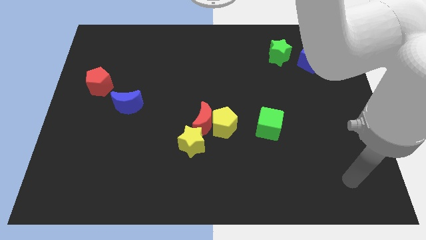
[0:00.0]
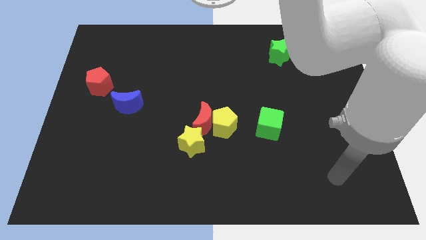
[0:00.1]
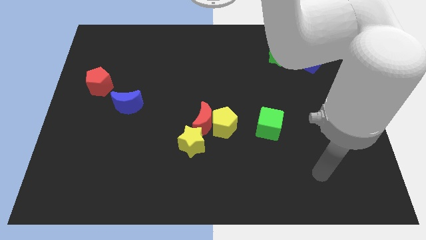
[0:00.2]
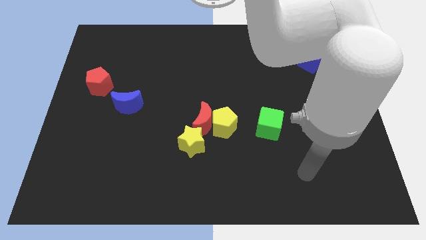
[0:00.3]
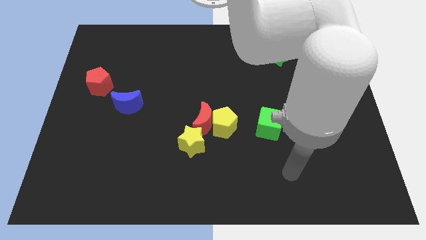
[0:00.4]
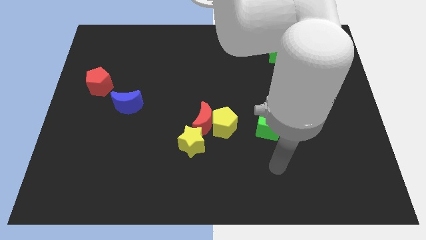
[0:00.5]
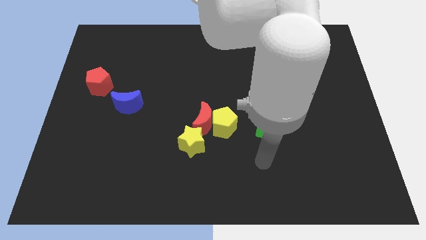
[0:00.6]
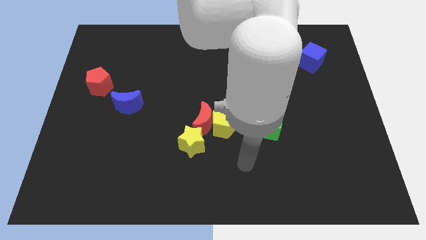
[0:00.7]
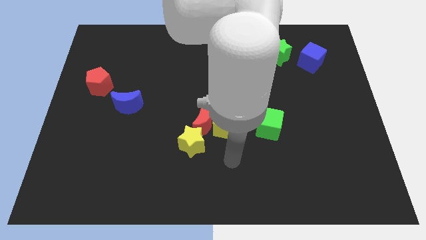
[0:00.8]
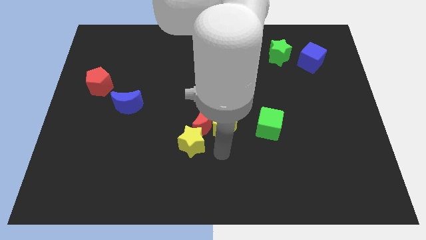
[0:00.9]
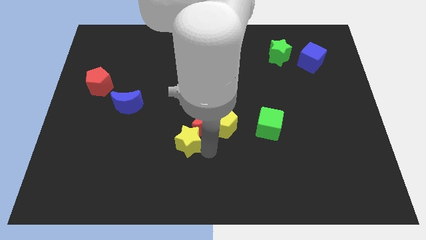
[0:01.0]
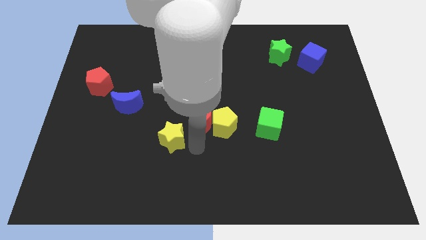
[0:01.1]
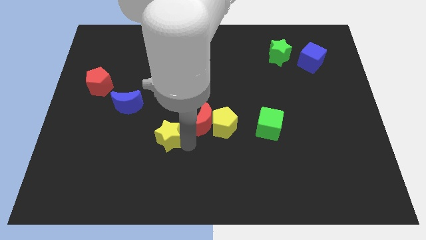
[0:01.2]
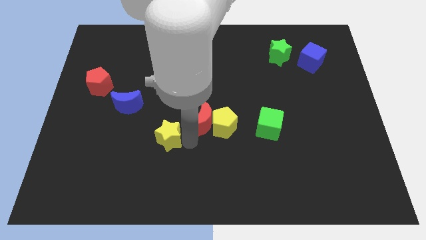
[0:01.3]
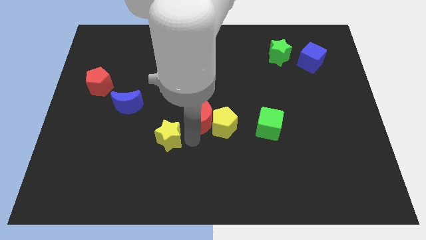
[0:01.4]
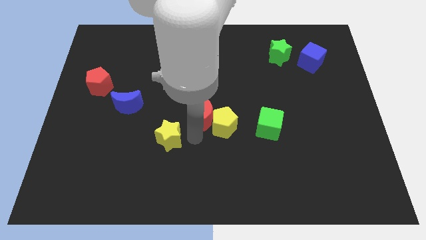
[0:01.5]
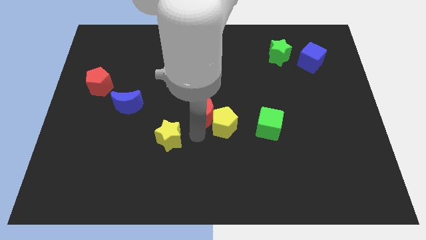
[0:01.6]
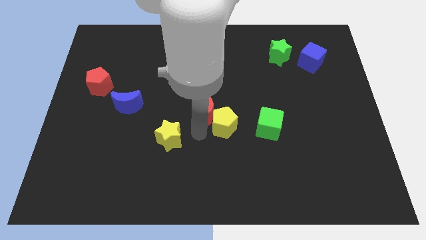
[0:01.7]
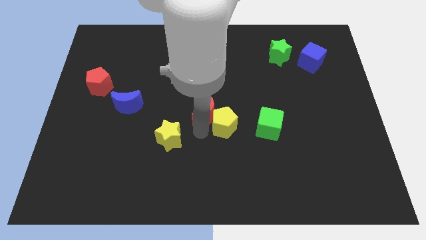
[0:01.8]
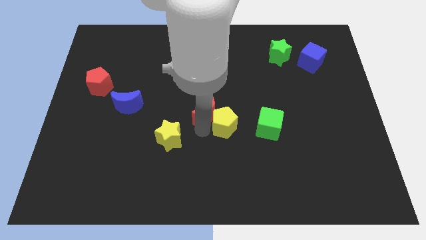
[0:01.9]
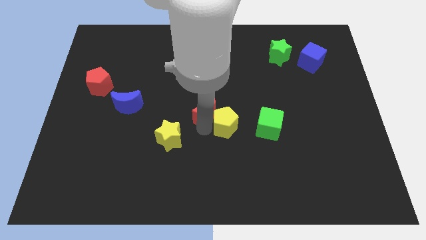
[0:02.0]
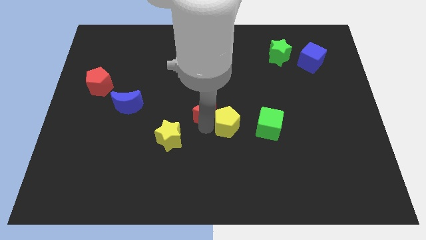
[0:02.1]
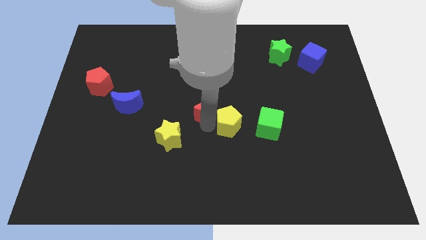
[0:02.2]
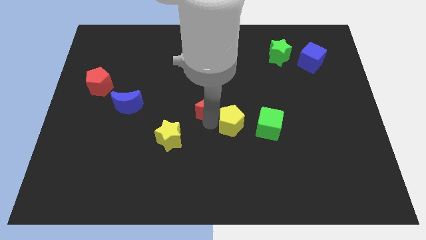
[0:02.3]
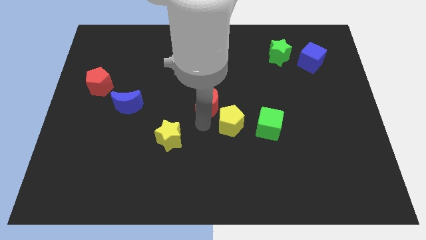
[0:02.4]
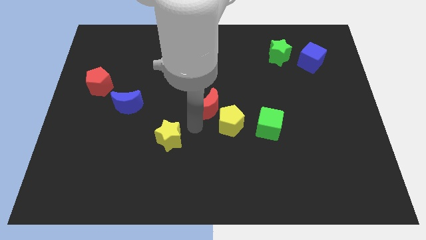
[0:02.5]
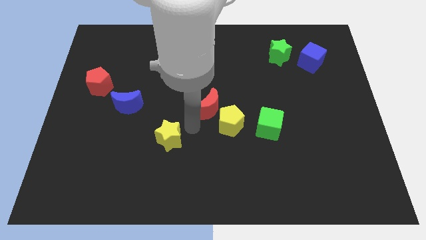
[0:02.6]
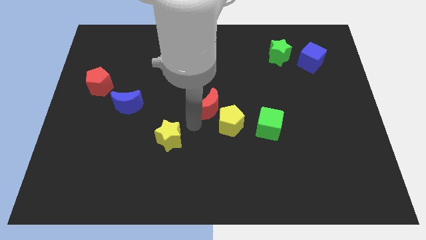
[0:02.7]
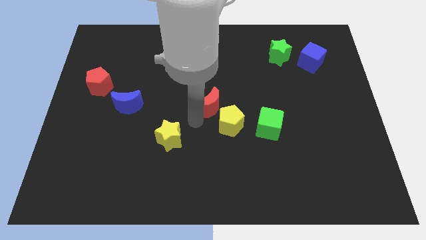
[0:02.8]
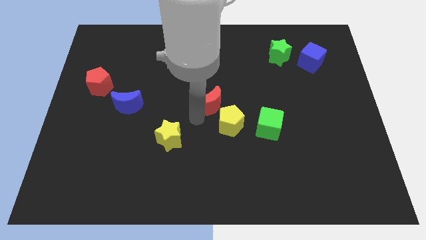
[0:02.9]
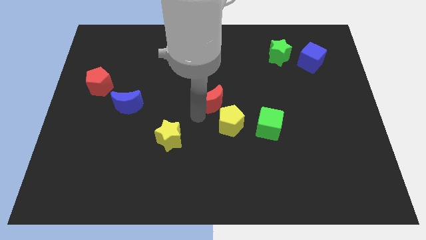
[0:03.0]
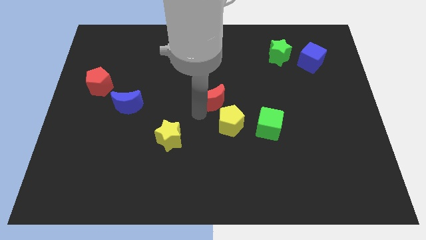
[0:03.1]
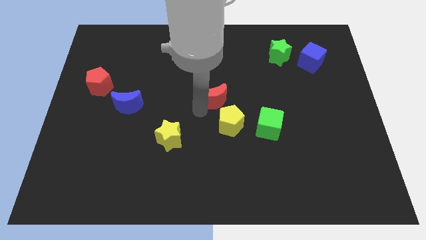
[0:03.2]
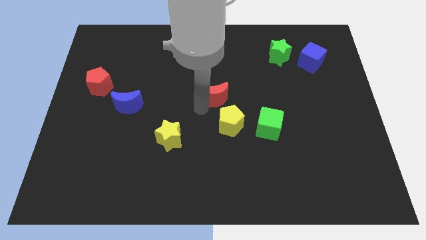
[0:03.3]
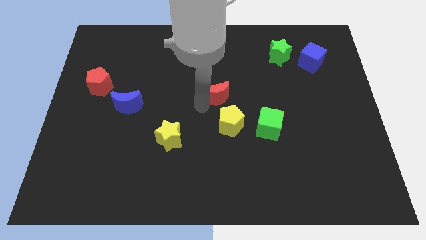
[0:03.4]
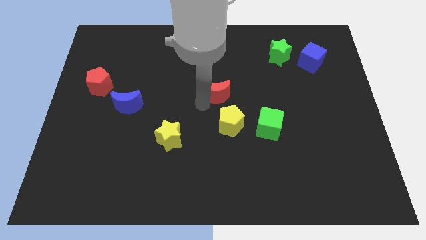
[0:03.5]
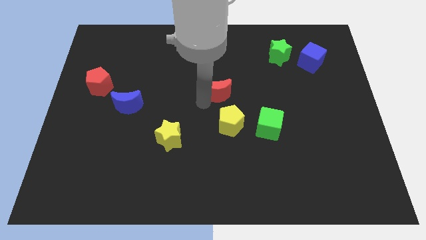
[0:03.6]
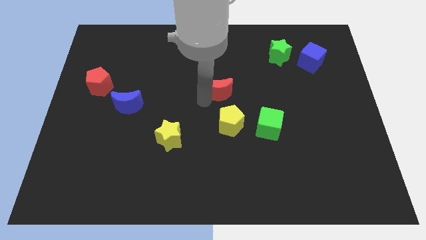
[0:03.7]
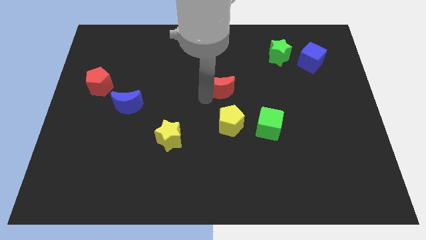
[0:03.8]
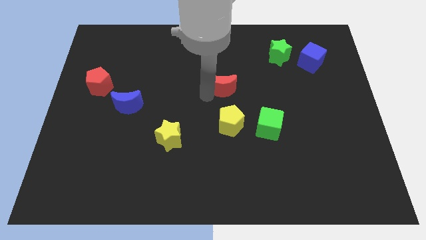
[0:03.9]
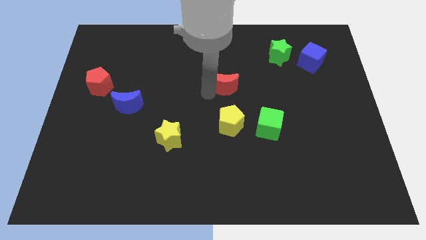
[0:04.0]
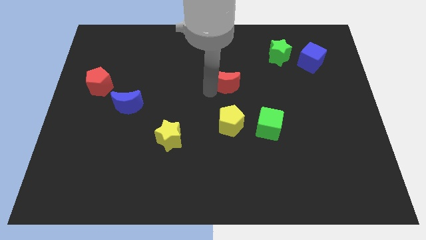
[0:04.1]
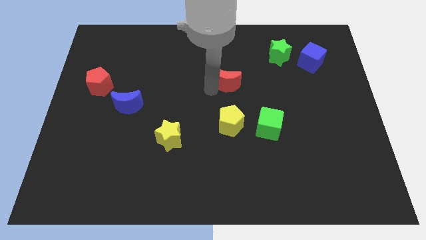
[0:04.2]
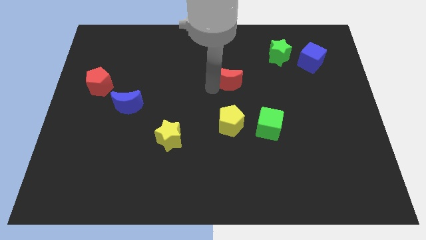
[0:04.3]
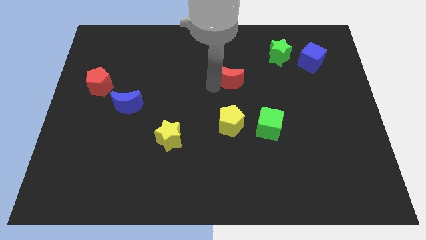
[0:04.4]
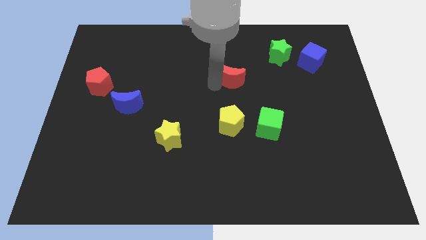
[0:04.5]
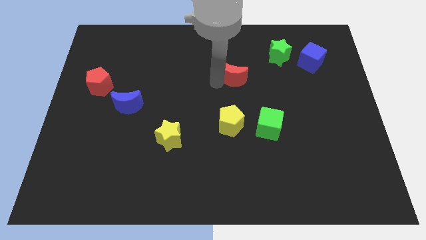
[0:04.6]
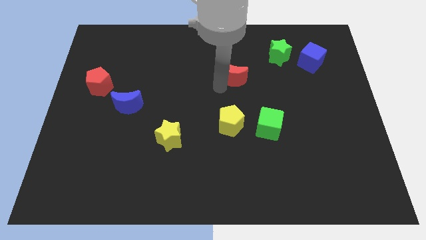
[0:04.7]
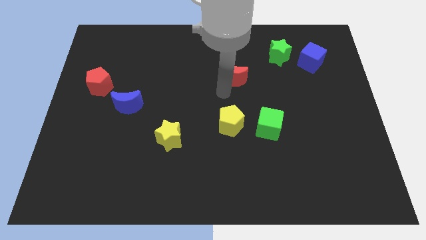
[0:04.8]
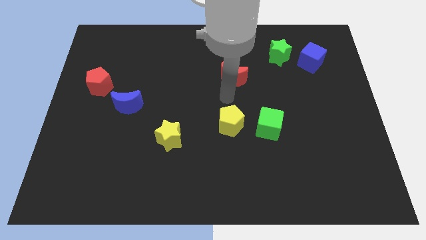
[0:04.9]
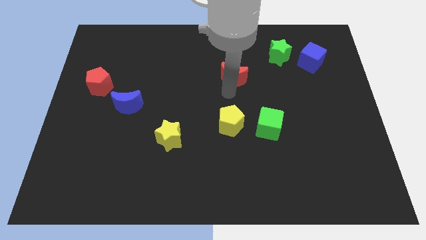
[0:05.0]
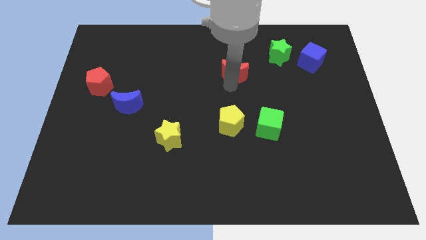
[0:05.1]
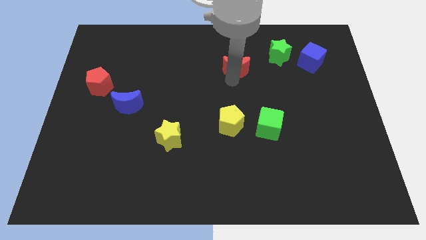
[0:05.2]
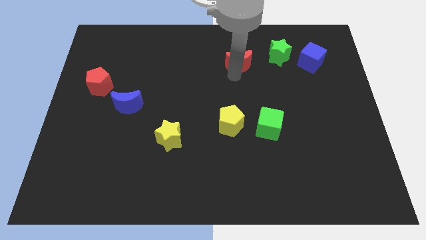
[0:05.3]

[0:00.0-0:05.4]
slide the red moon to the left side of the green star

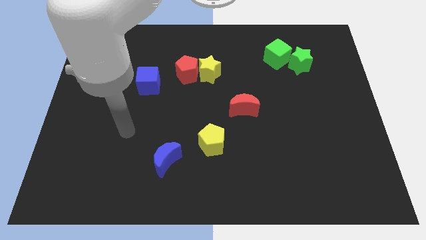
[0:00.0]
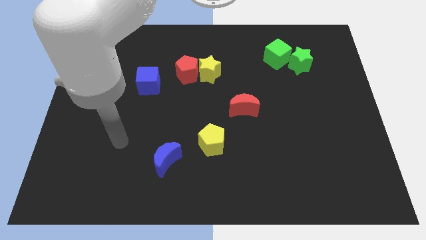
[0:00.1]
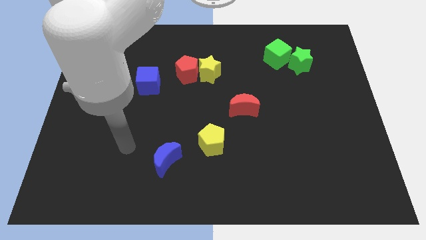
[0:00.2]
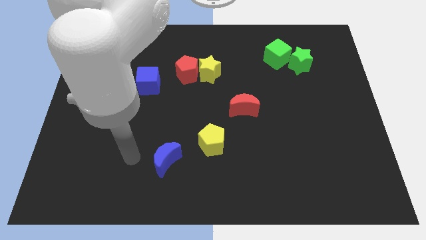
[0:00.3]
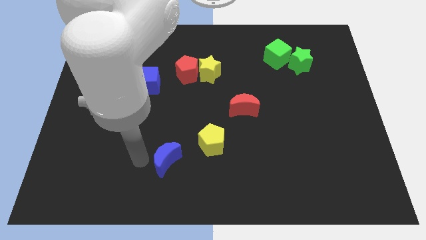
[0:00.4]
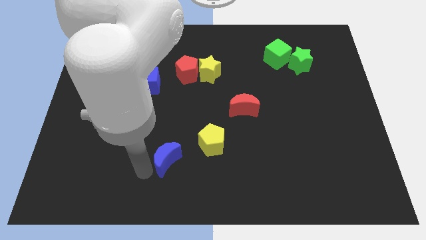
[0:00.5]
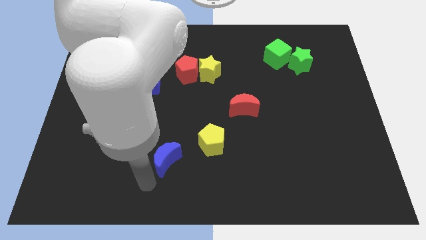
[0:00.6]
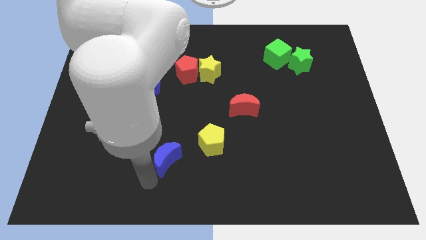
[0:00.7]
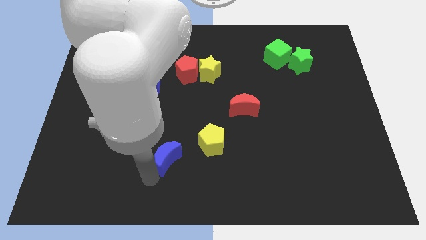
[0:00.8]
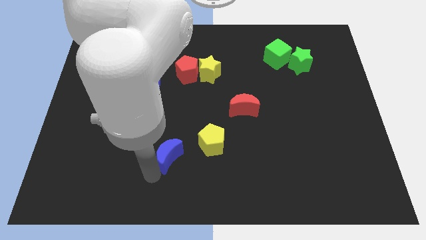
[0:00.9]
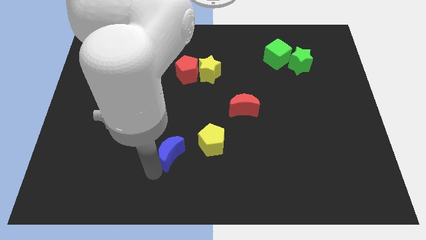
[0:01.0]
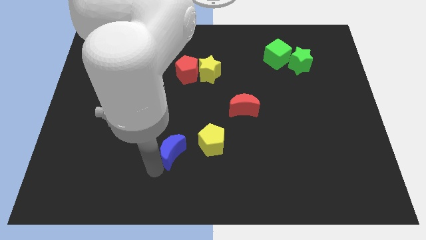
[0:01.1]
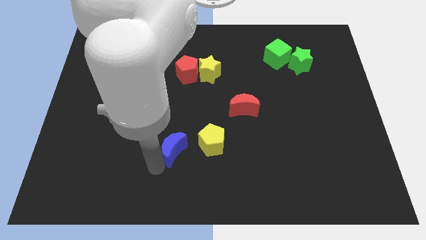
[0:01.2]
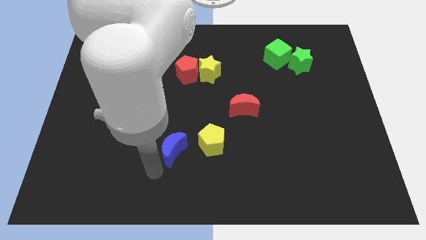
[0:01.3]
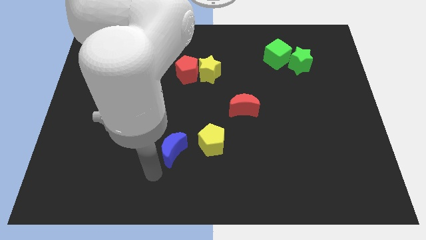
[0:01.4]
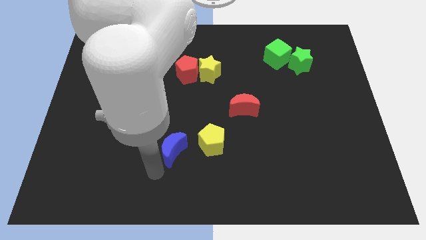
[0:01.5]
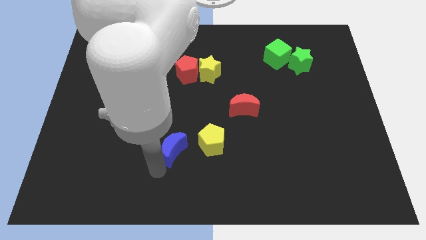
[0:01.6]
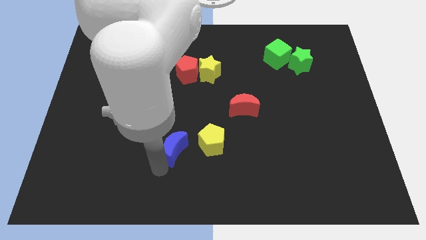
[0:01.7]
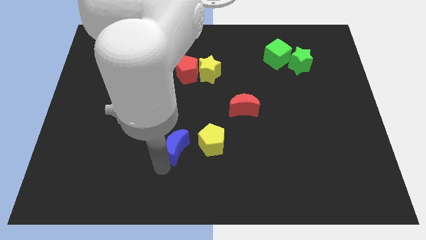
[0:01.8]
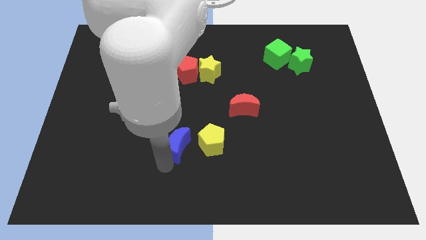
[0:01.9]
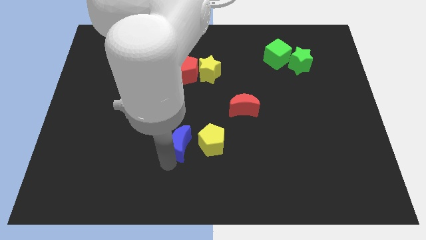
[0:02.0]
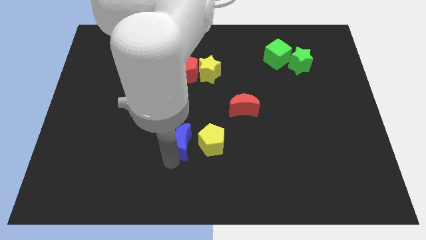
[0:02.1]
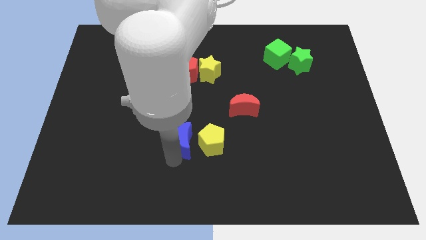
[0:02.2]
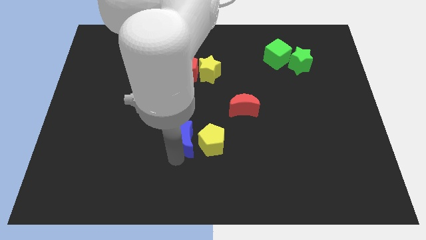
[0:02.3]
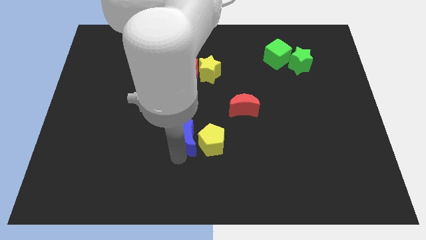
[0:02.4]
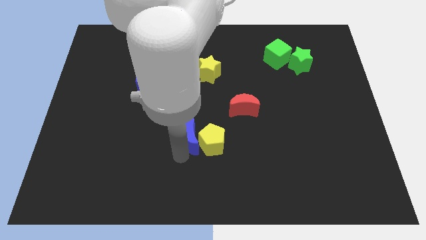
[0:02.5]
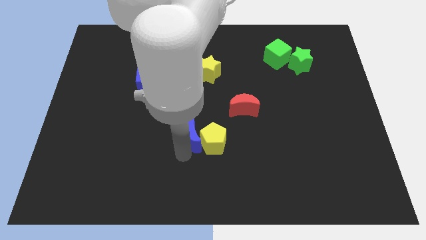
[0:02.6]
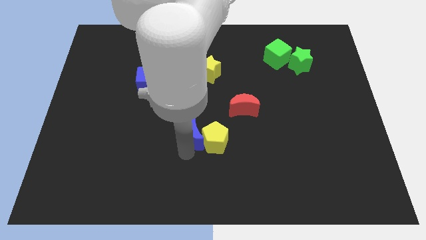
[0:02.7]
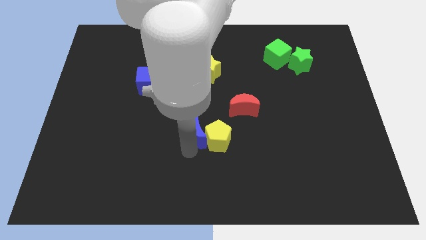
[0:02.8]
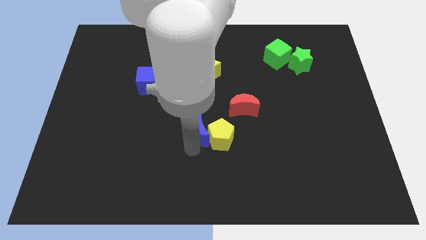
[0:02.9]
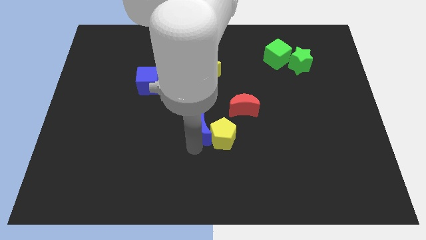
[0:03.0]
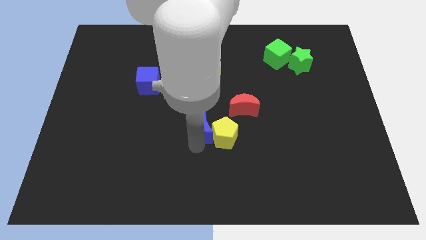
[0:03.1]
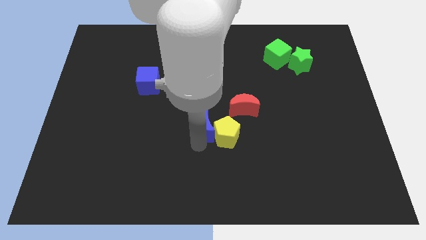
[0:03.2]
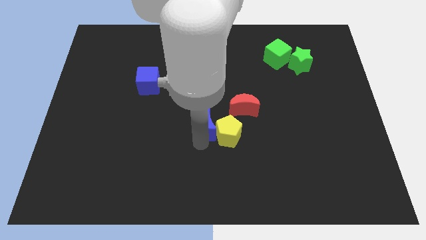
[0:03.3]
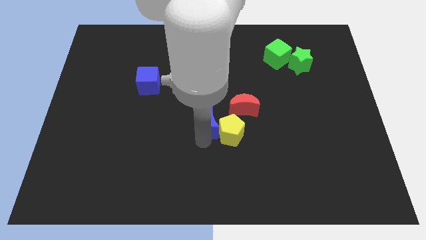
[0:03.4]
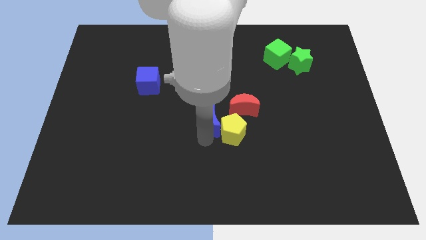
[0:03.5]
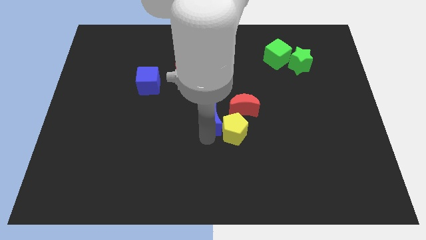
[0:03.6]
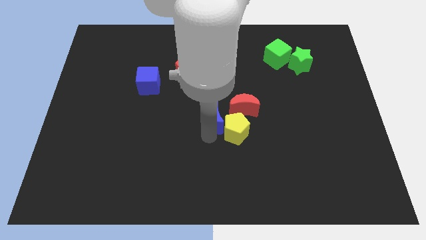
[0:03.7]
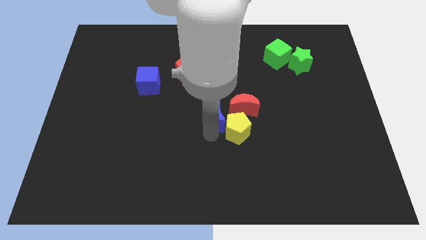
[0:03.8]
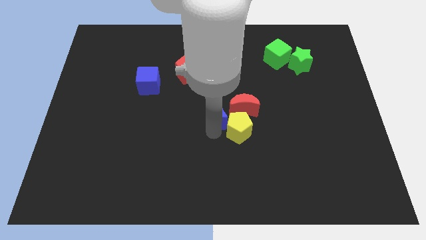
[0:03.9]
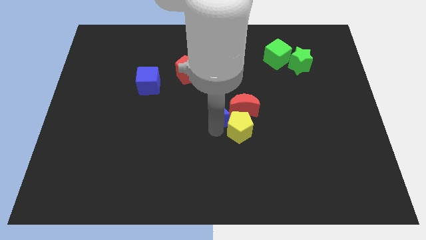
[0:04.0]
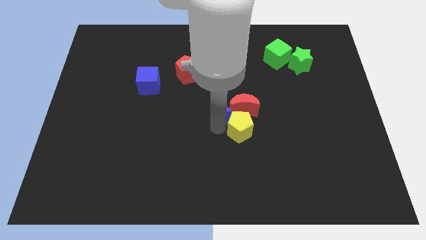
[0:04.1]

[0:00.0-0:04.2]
move the blue moon diagonally up and to the left of the red moon
